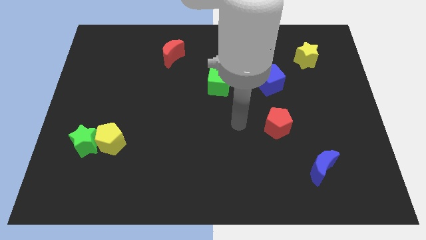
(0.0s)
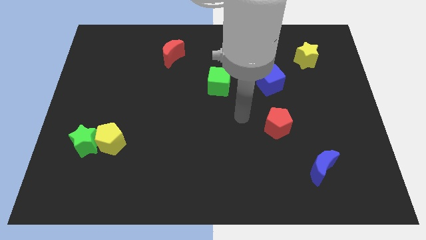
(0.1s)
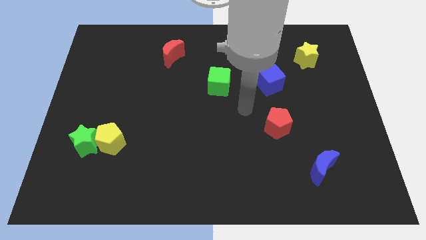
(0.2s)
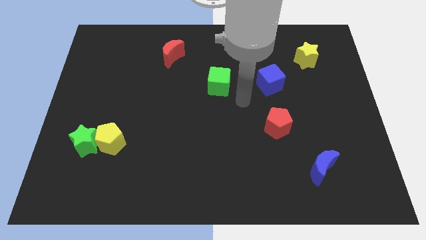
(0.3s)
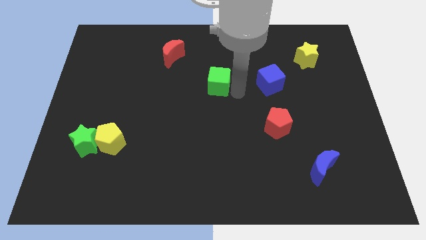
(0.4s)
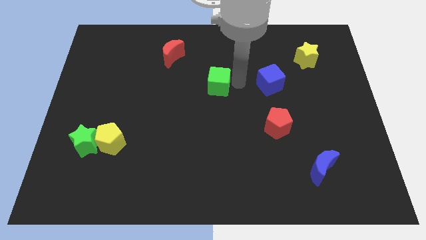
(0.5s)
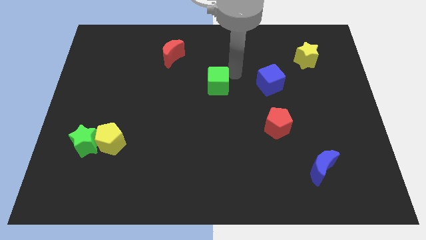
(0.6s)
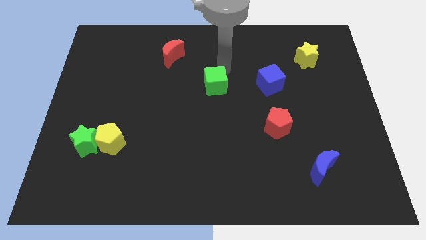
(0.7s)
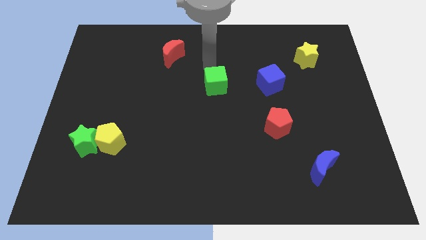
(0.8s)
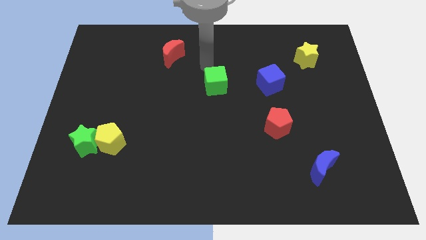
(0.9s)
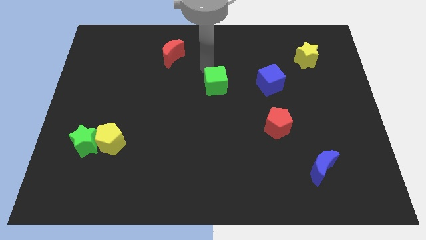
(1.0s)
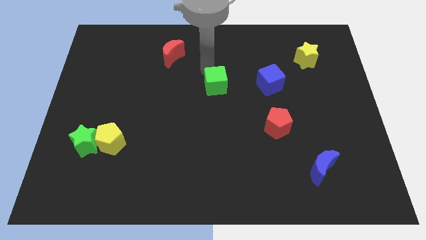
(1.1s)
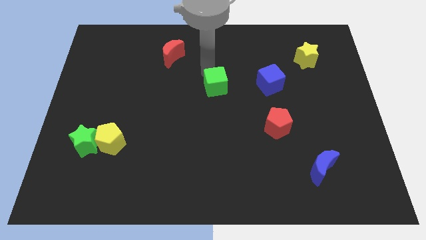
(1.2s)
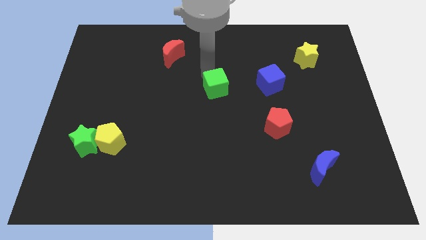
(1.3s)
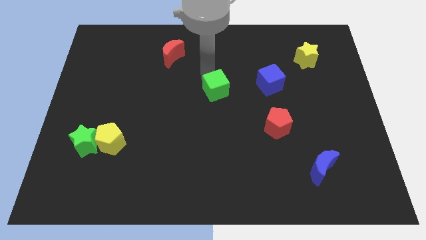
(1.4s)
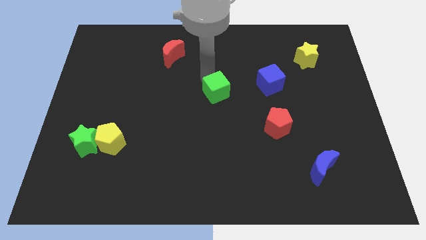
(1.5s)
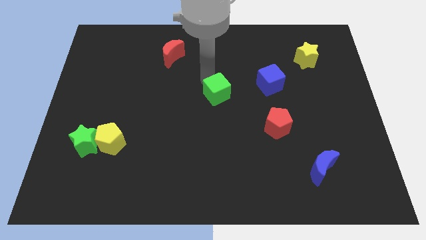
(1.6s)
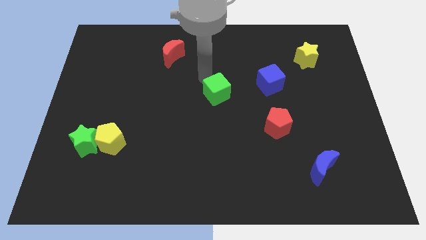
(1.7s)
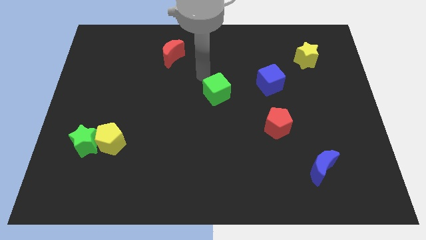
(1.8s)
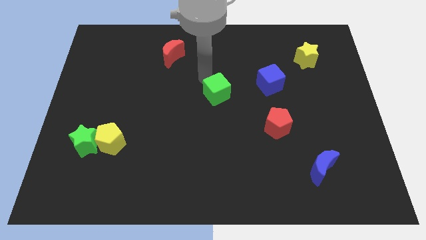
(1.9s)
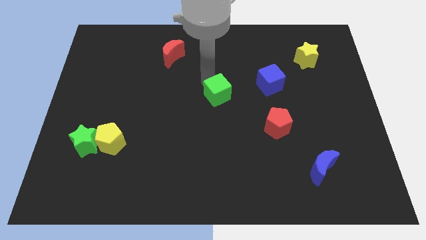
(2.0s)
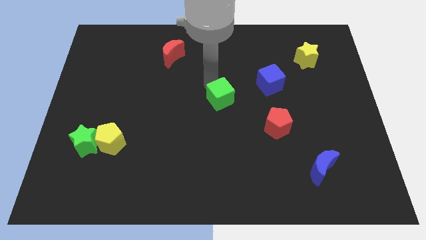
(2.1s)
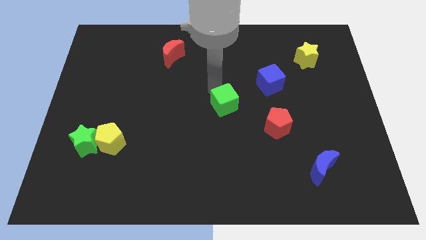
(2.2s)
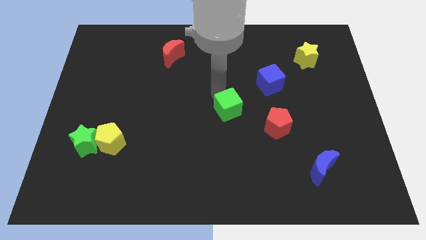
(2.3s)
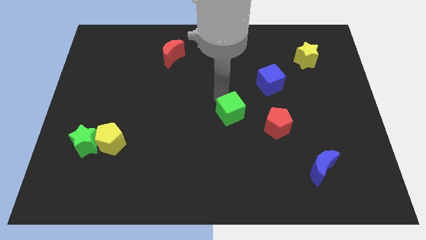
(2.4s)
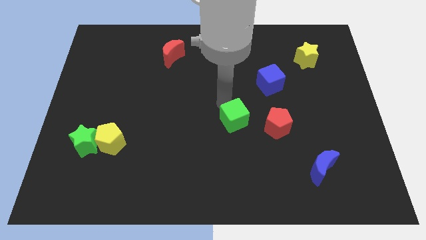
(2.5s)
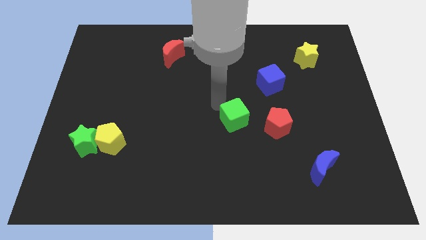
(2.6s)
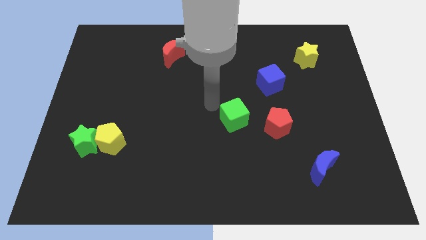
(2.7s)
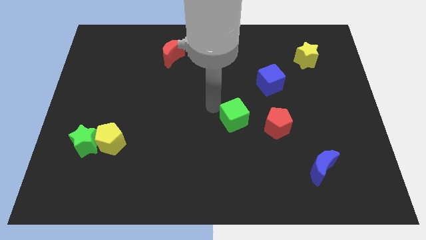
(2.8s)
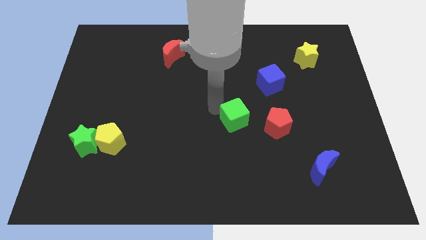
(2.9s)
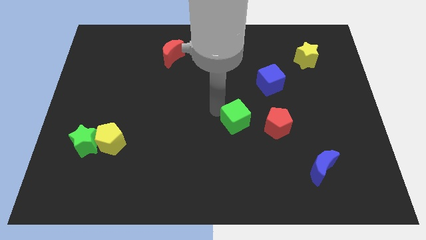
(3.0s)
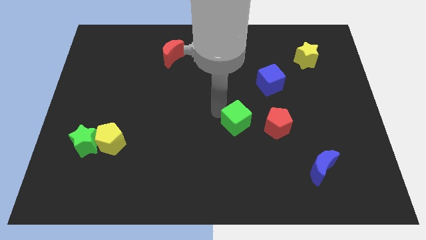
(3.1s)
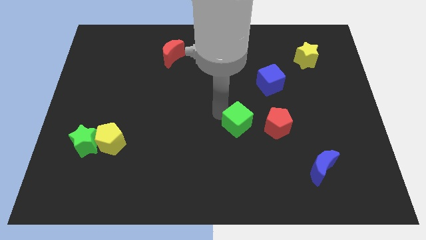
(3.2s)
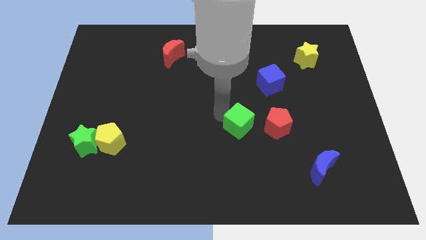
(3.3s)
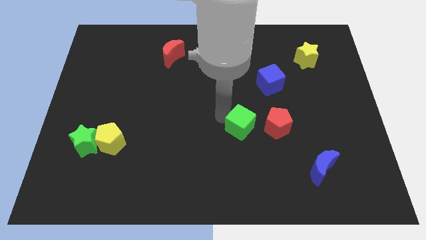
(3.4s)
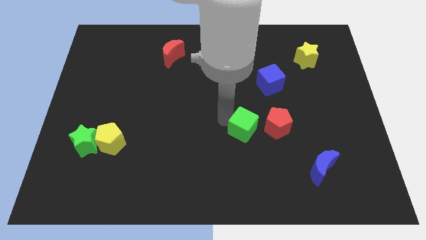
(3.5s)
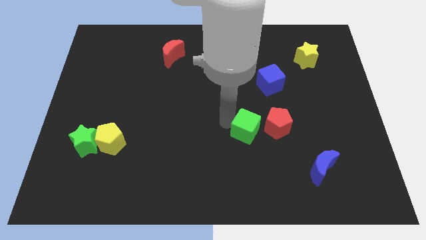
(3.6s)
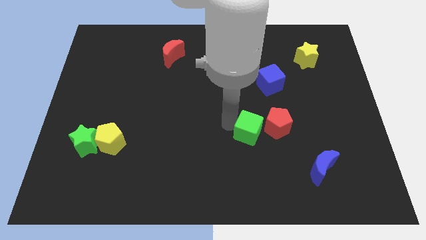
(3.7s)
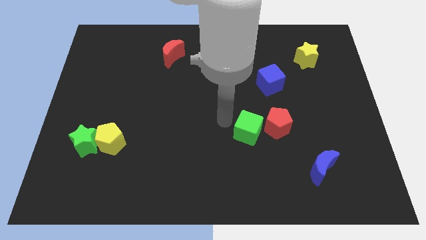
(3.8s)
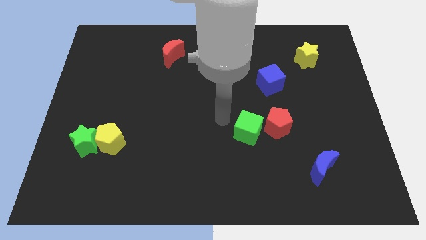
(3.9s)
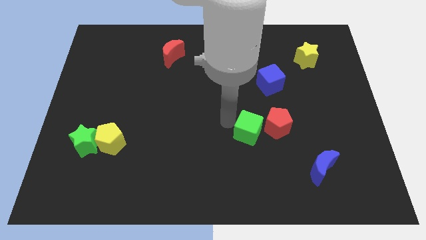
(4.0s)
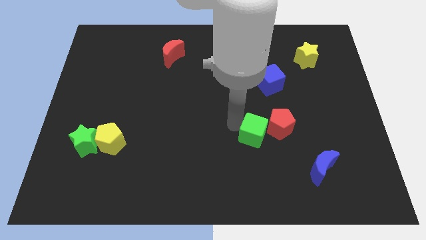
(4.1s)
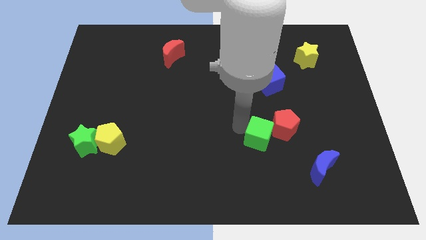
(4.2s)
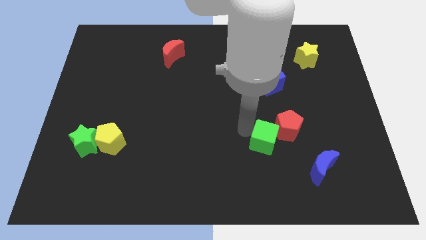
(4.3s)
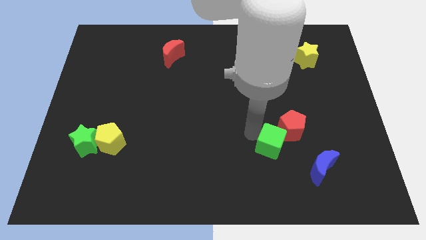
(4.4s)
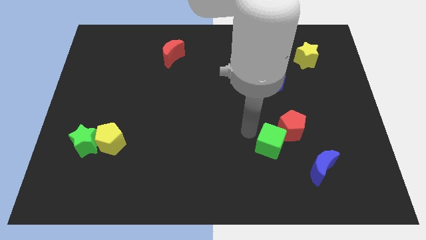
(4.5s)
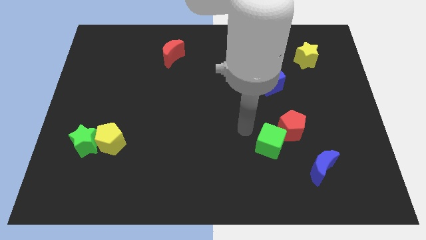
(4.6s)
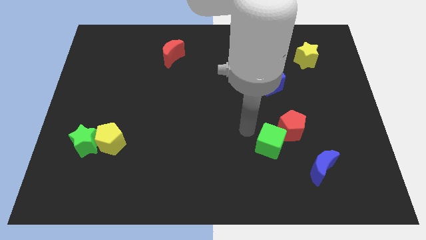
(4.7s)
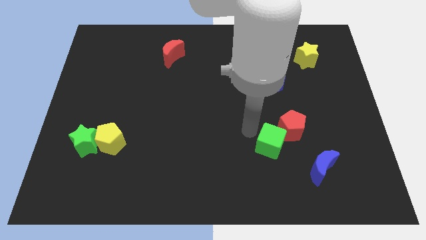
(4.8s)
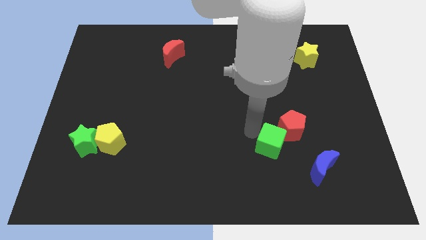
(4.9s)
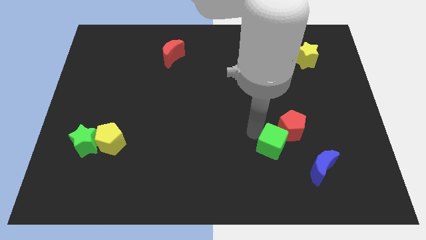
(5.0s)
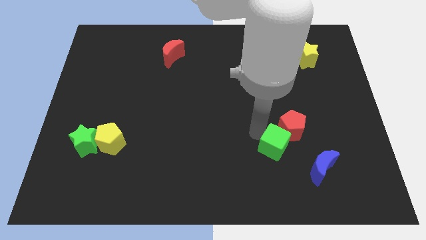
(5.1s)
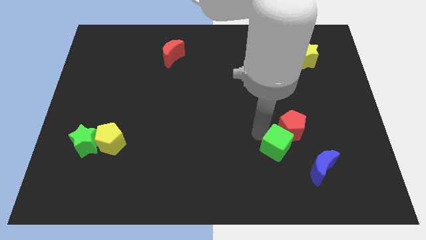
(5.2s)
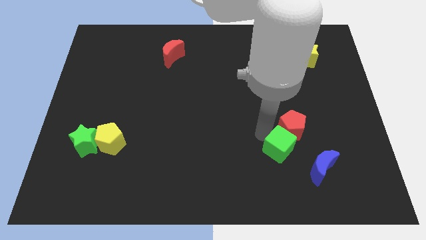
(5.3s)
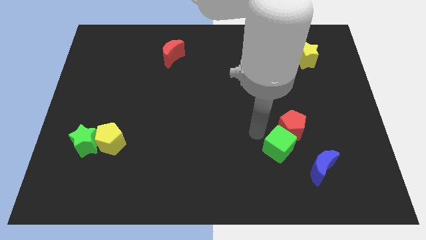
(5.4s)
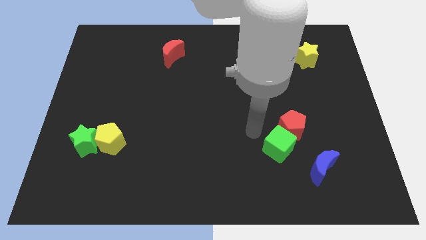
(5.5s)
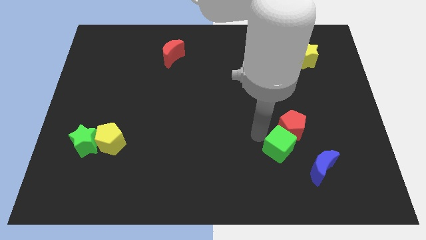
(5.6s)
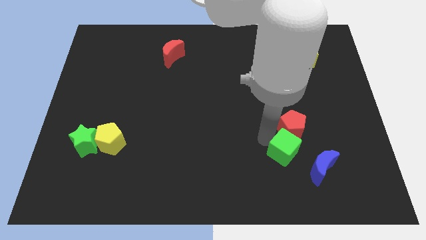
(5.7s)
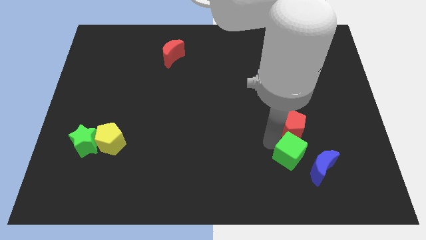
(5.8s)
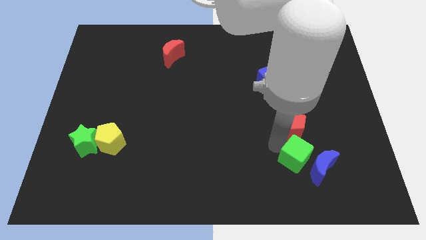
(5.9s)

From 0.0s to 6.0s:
push the green cube to the blue moon

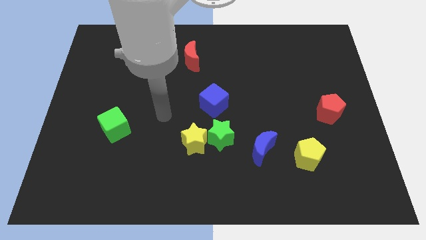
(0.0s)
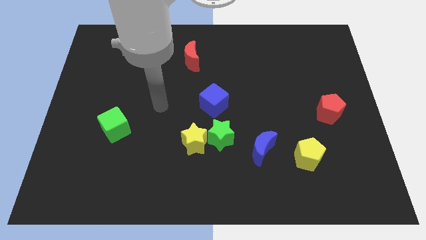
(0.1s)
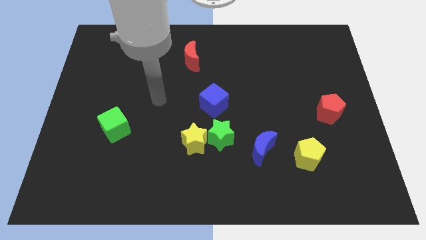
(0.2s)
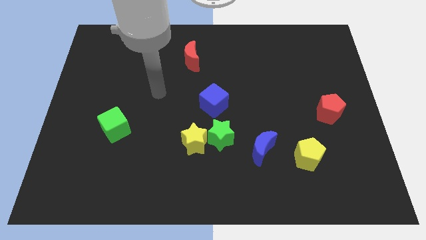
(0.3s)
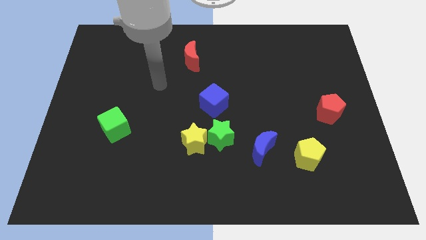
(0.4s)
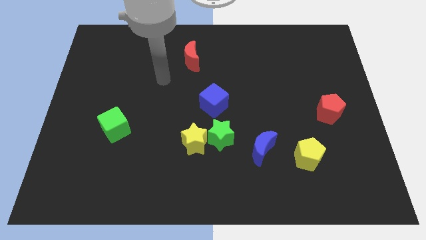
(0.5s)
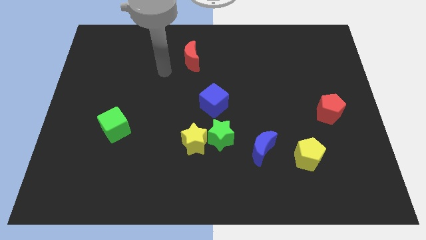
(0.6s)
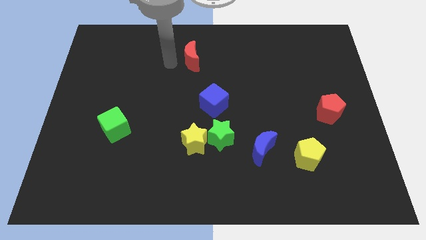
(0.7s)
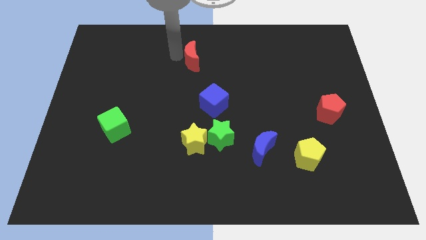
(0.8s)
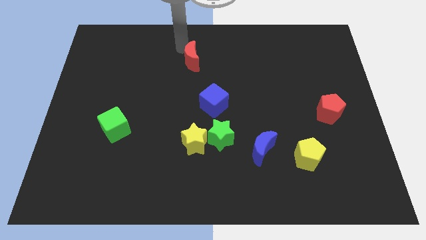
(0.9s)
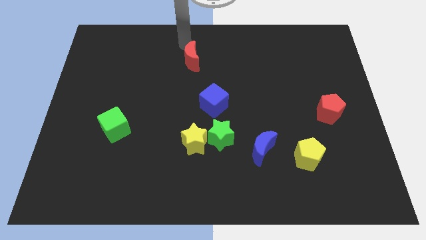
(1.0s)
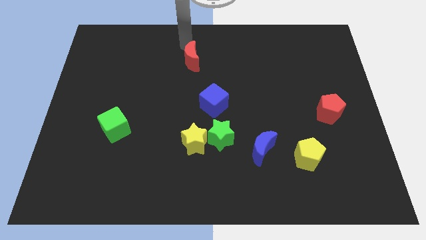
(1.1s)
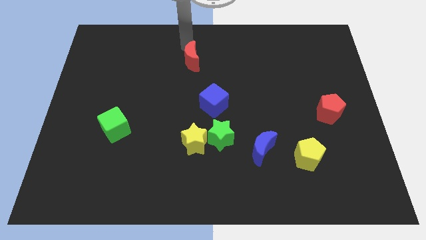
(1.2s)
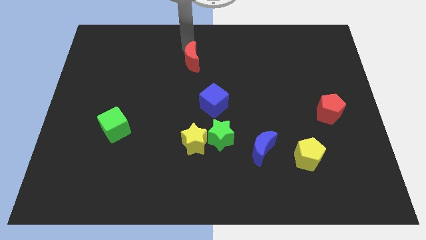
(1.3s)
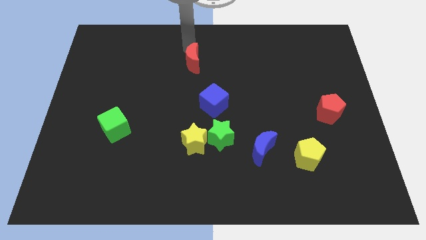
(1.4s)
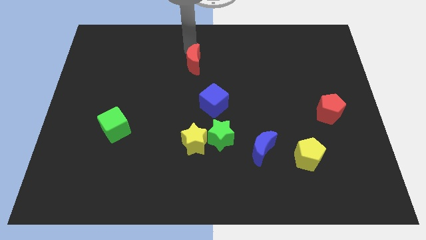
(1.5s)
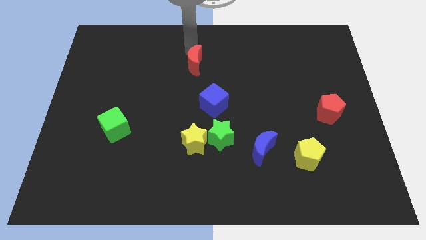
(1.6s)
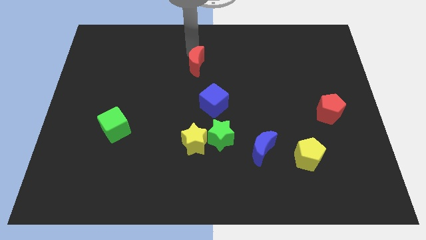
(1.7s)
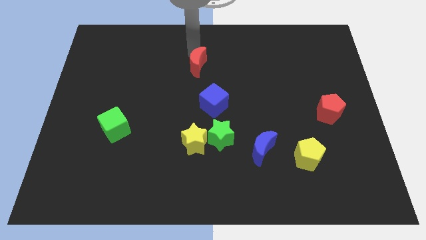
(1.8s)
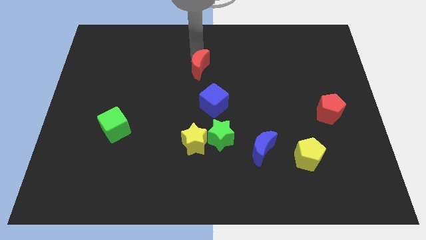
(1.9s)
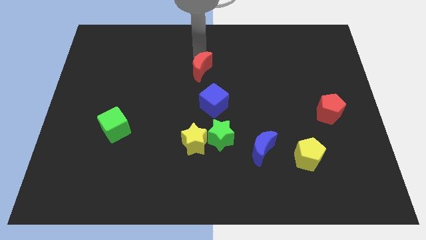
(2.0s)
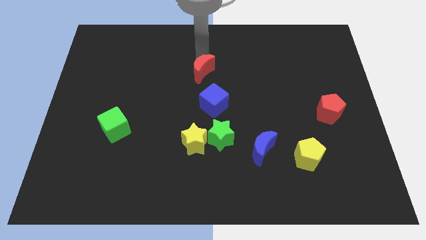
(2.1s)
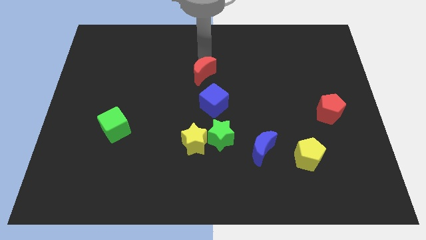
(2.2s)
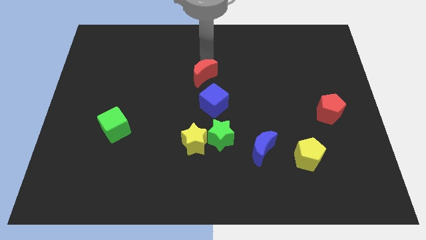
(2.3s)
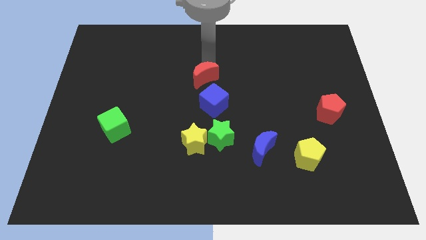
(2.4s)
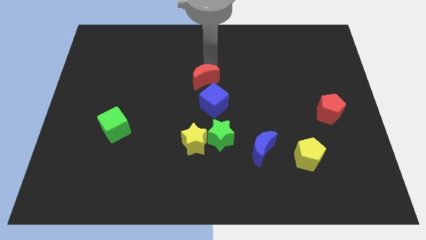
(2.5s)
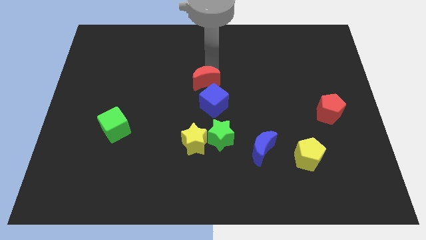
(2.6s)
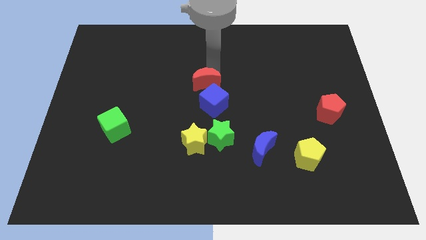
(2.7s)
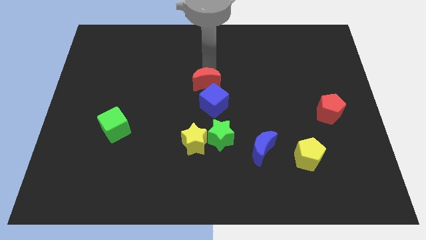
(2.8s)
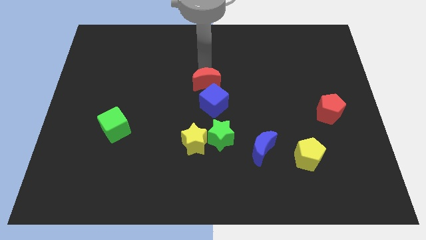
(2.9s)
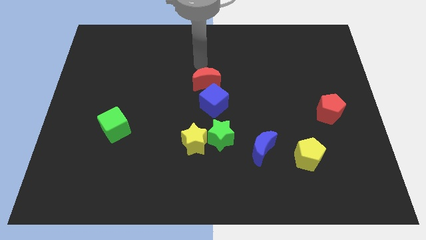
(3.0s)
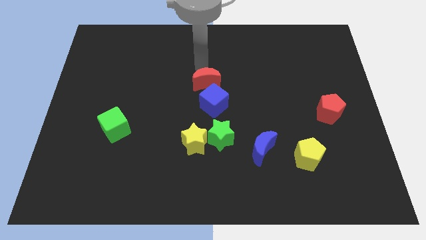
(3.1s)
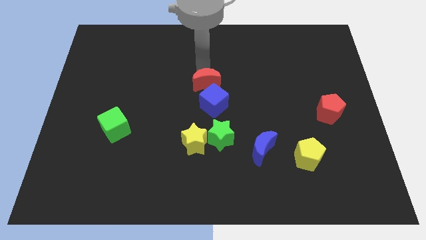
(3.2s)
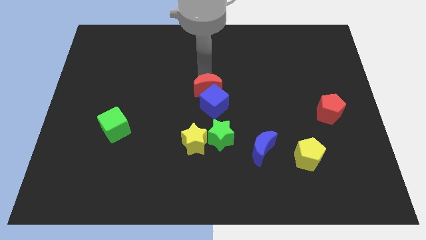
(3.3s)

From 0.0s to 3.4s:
move the red moon close to the blue cube
